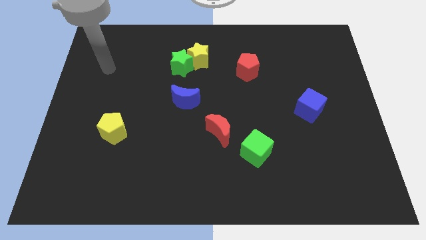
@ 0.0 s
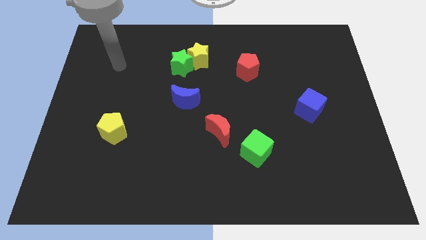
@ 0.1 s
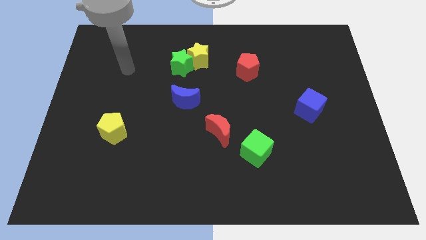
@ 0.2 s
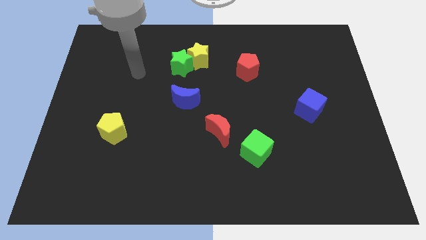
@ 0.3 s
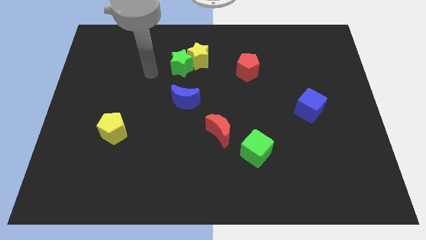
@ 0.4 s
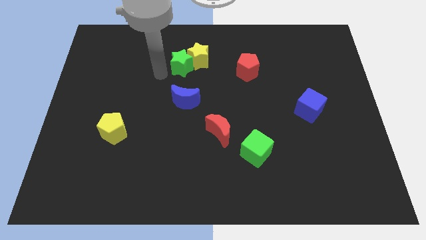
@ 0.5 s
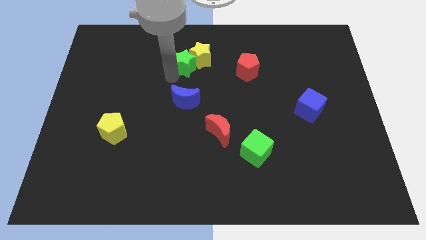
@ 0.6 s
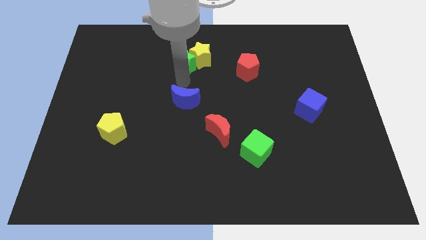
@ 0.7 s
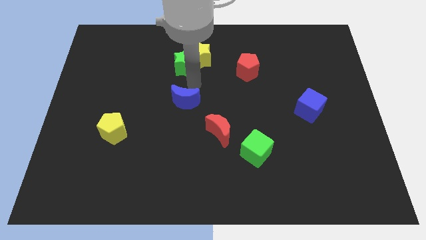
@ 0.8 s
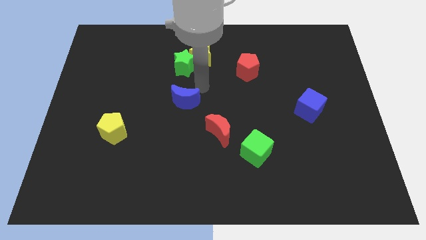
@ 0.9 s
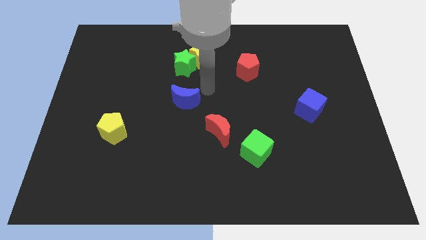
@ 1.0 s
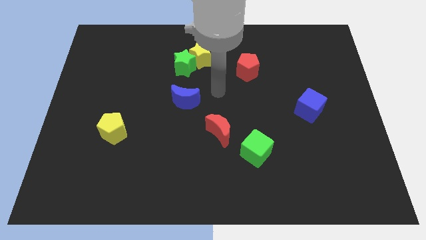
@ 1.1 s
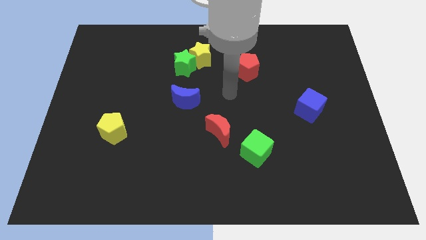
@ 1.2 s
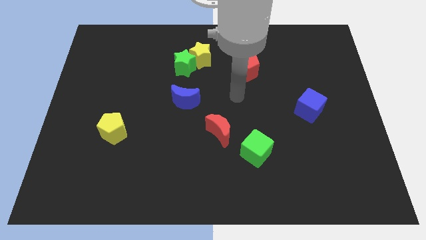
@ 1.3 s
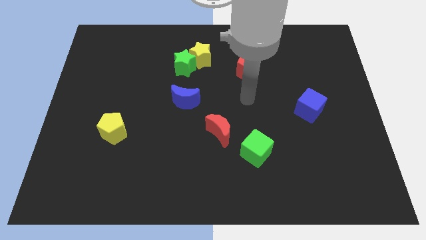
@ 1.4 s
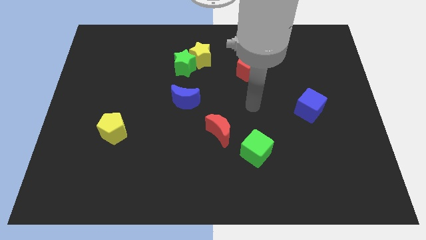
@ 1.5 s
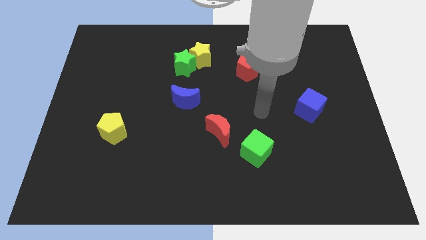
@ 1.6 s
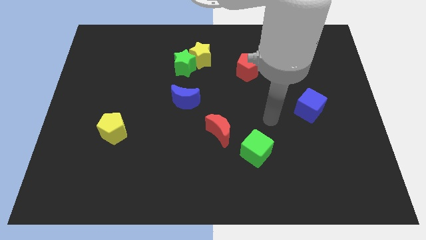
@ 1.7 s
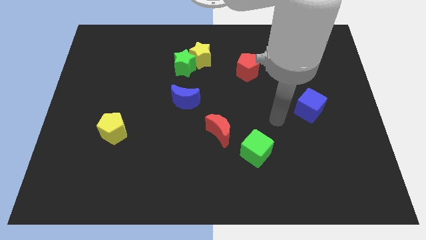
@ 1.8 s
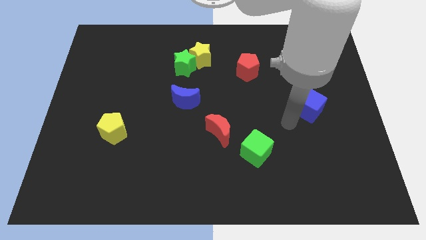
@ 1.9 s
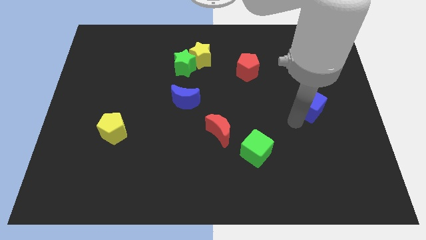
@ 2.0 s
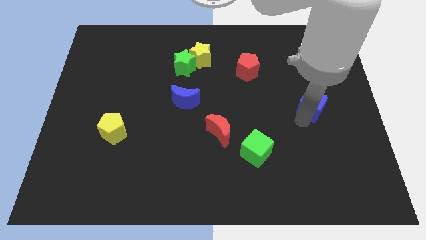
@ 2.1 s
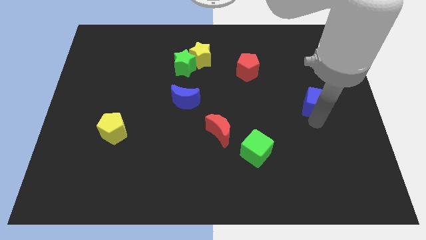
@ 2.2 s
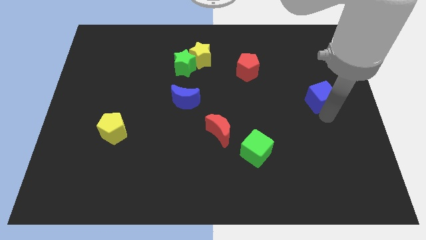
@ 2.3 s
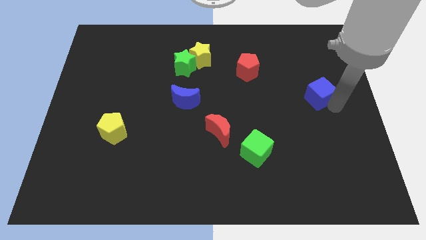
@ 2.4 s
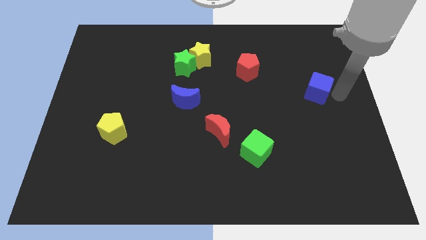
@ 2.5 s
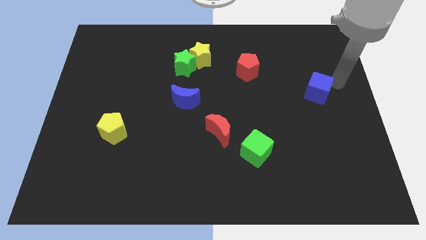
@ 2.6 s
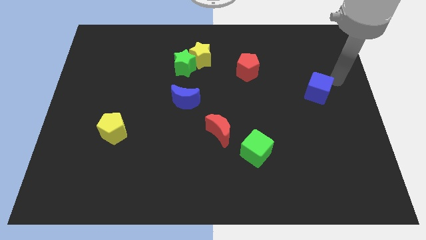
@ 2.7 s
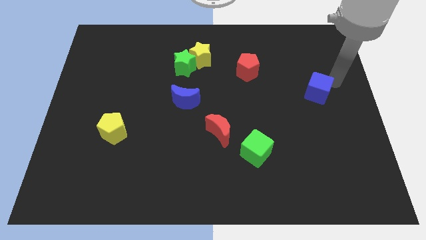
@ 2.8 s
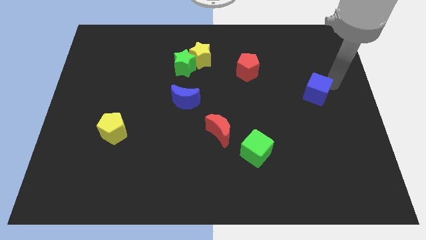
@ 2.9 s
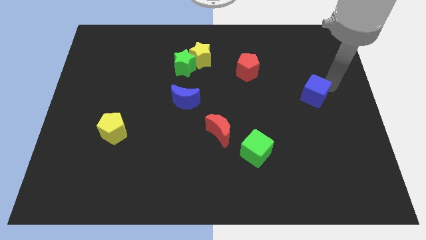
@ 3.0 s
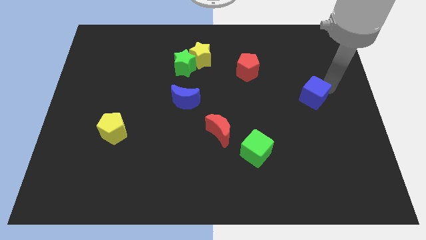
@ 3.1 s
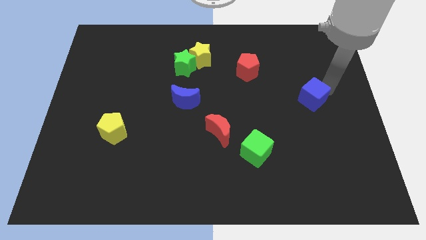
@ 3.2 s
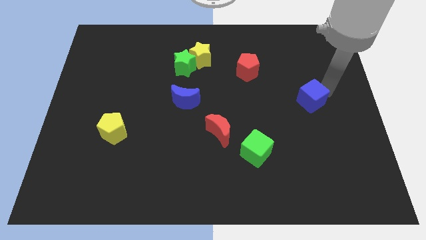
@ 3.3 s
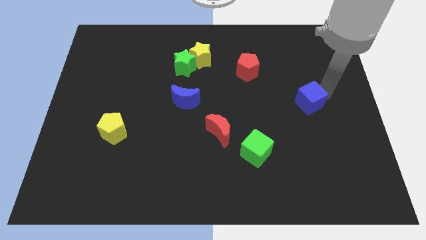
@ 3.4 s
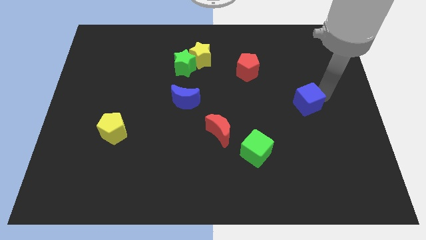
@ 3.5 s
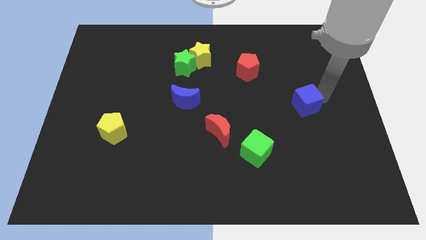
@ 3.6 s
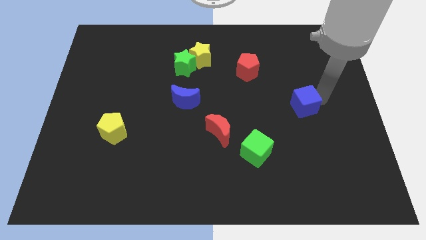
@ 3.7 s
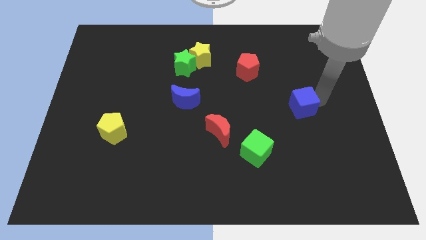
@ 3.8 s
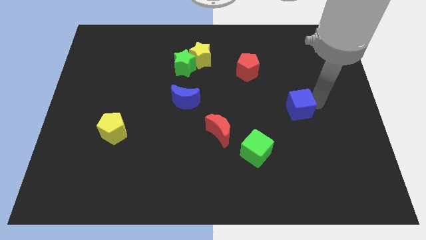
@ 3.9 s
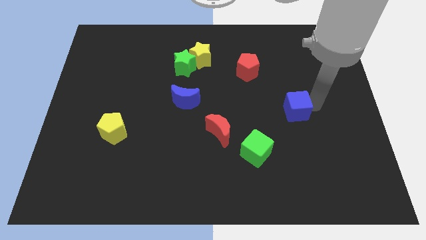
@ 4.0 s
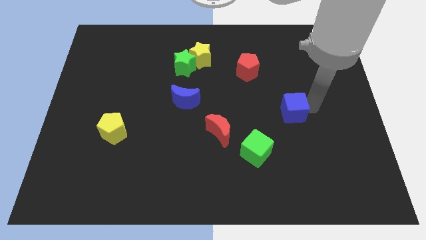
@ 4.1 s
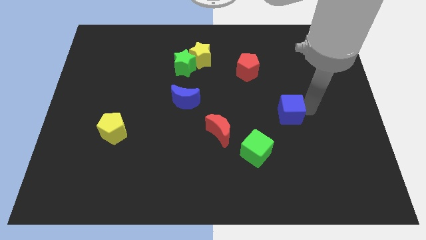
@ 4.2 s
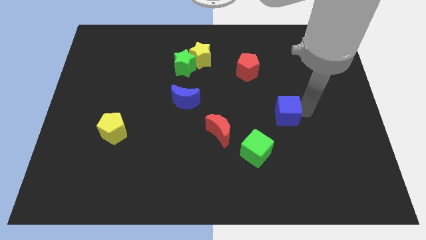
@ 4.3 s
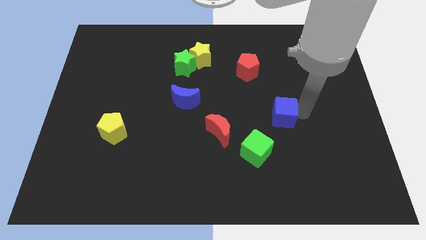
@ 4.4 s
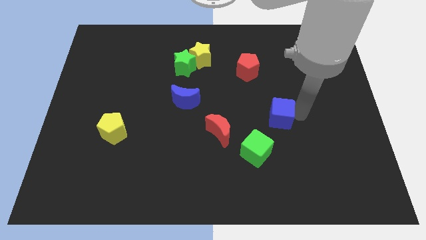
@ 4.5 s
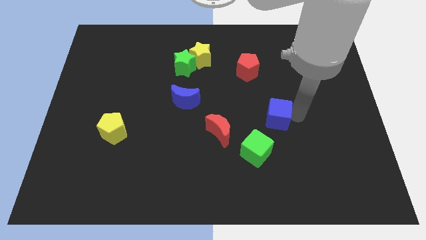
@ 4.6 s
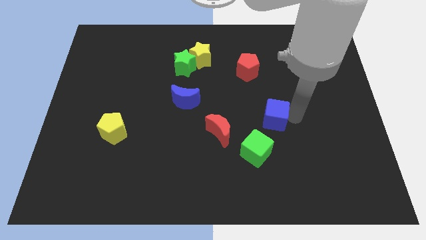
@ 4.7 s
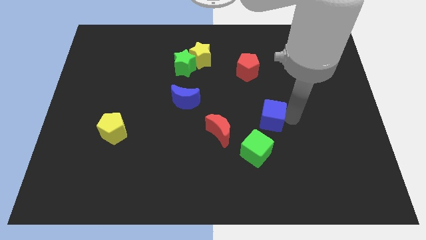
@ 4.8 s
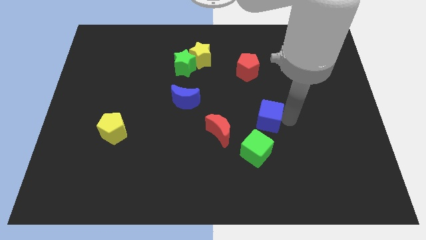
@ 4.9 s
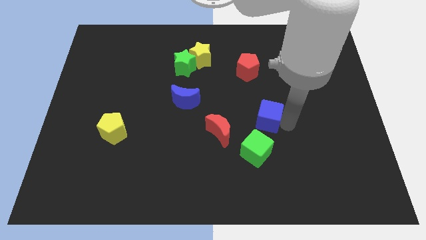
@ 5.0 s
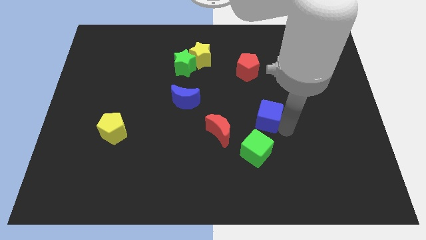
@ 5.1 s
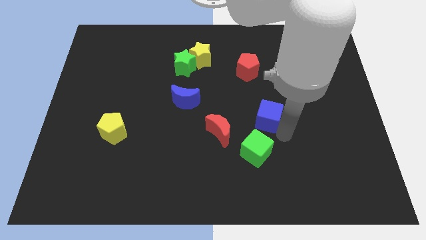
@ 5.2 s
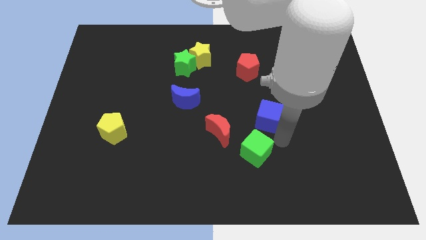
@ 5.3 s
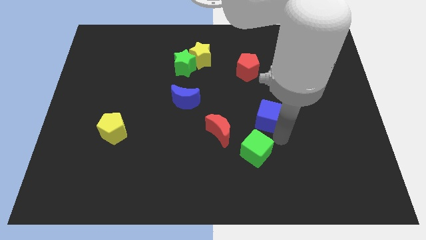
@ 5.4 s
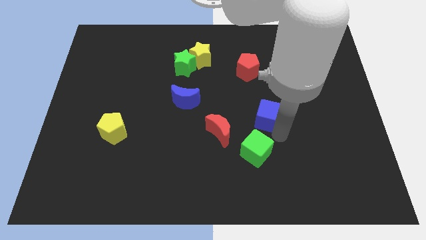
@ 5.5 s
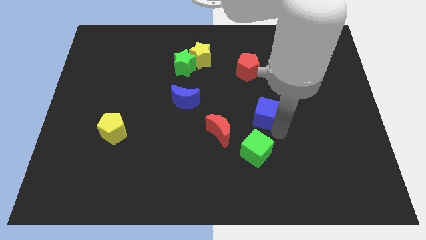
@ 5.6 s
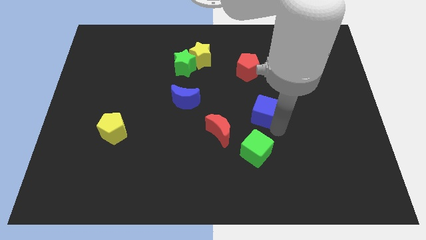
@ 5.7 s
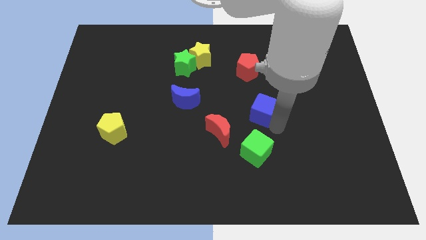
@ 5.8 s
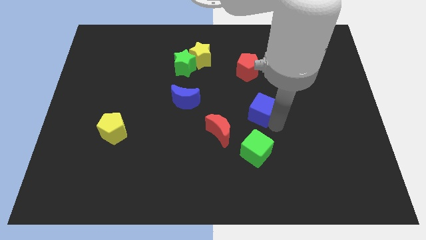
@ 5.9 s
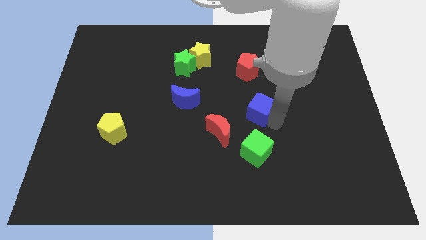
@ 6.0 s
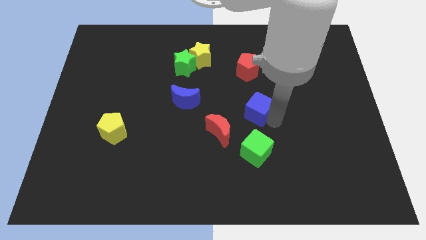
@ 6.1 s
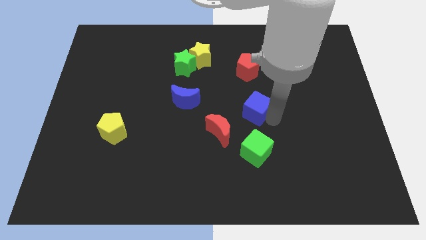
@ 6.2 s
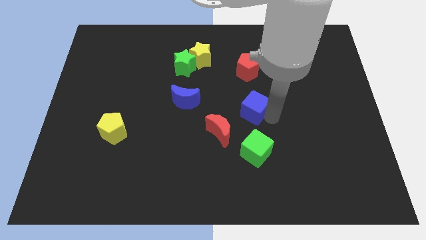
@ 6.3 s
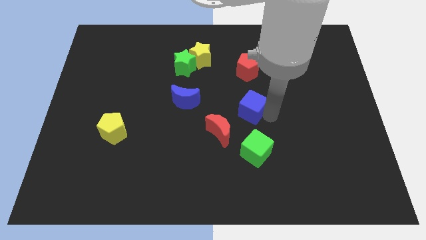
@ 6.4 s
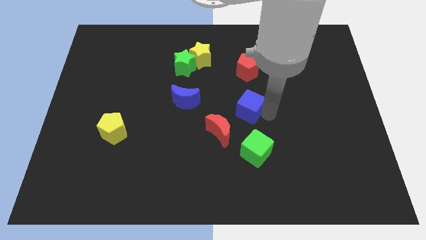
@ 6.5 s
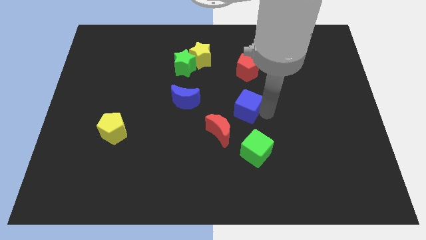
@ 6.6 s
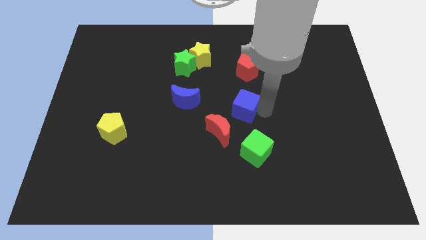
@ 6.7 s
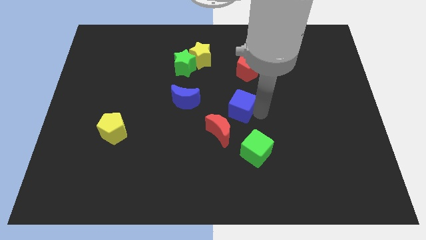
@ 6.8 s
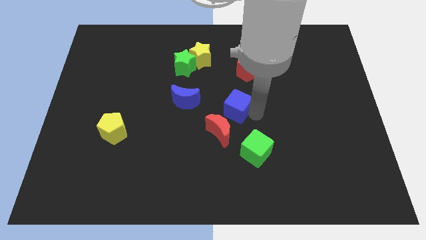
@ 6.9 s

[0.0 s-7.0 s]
put the blue cube to the top of the red moon

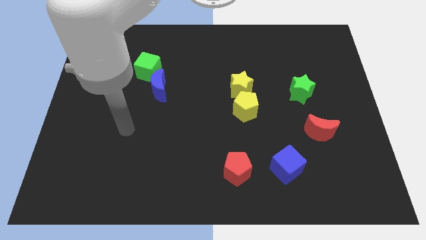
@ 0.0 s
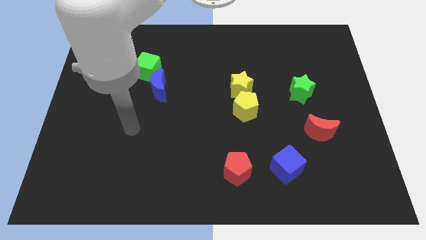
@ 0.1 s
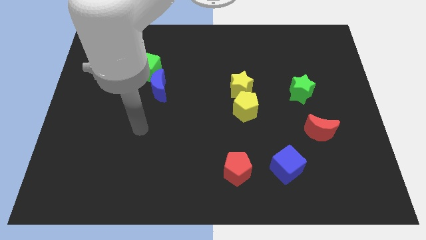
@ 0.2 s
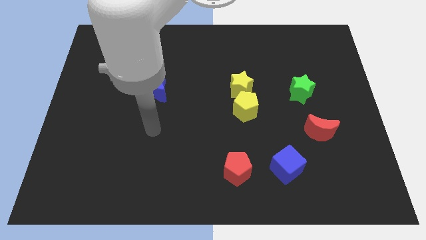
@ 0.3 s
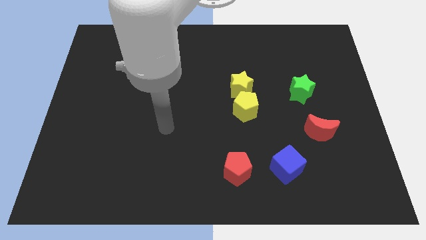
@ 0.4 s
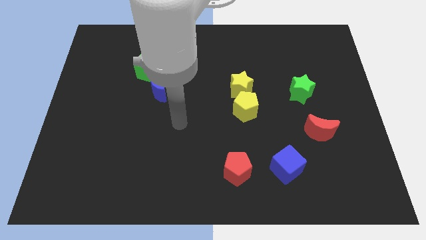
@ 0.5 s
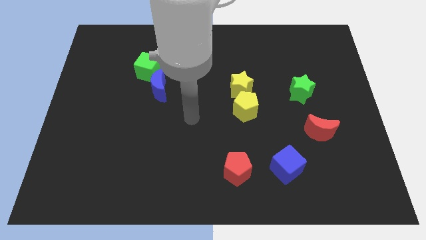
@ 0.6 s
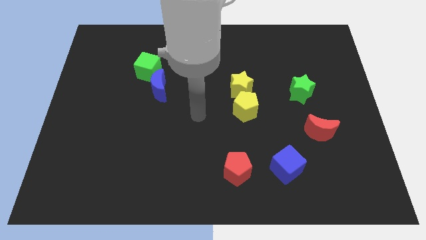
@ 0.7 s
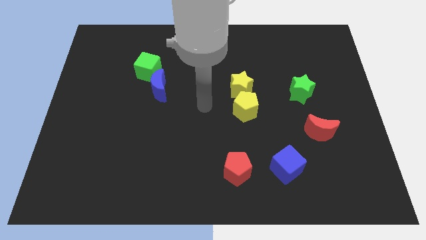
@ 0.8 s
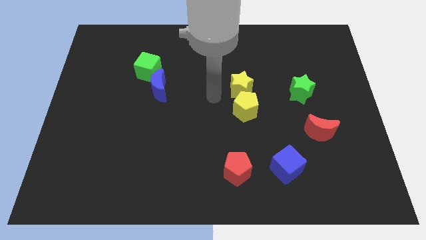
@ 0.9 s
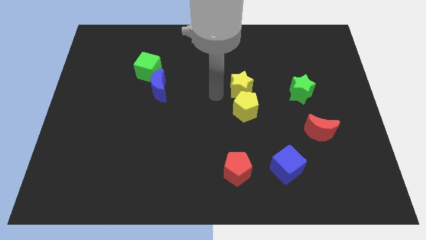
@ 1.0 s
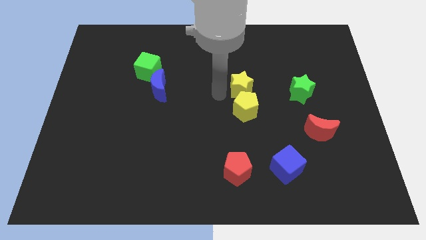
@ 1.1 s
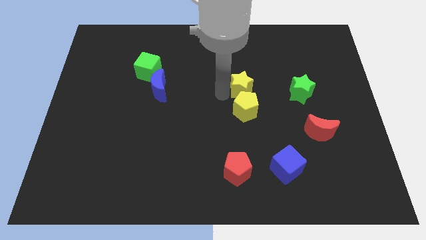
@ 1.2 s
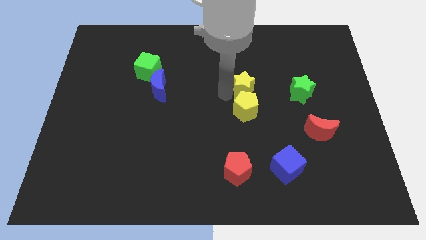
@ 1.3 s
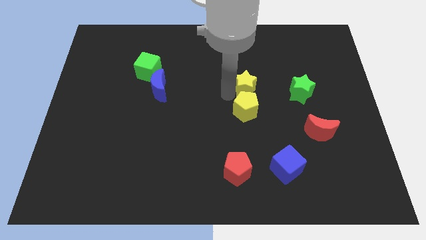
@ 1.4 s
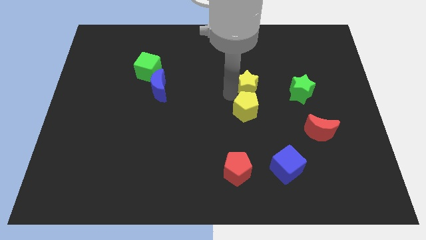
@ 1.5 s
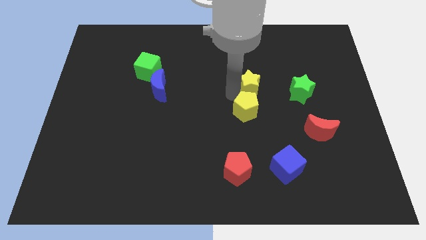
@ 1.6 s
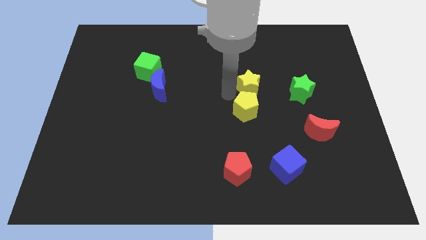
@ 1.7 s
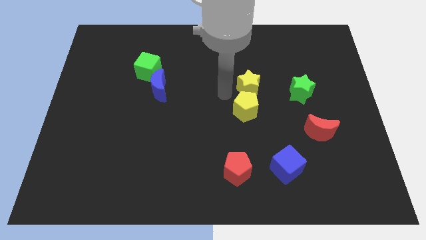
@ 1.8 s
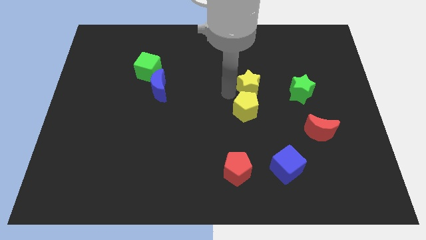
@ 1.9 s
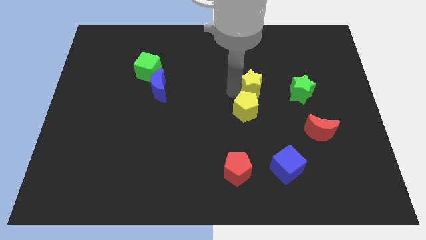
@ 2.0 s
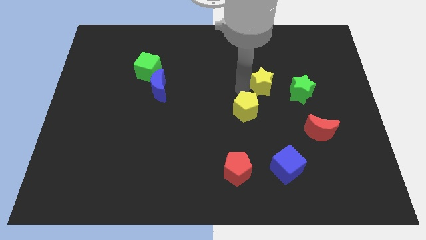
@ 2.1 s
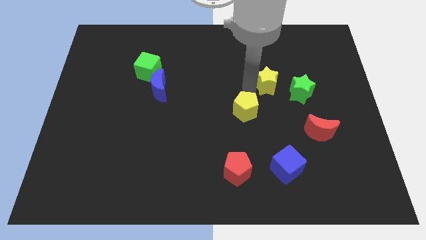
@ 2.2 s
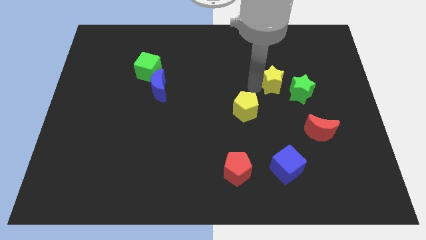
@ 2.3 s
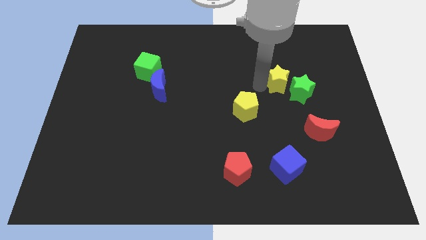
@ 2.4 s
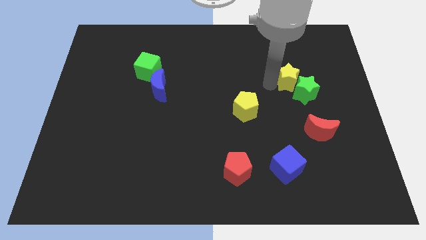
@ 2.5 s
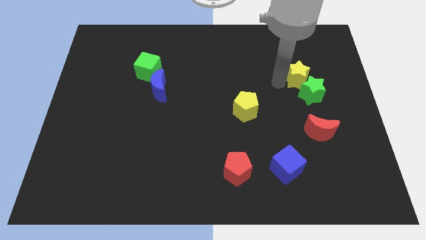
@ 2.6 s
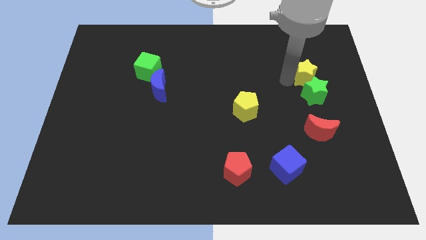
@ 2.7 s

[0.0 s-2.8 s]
slide the yellow star diagonally up and to the right of the green star
